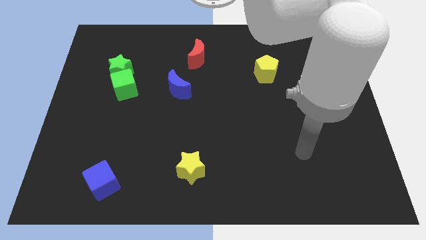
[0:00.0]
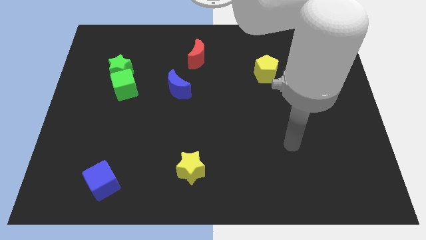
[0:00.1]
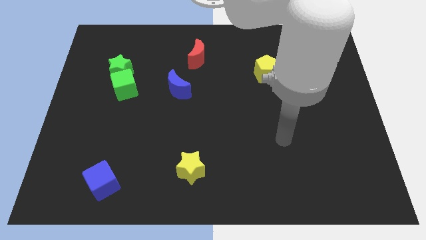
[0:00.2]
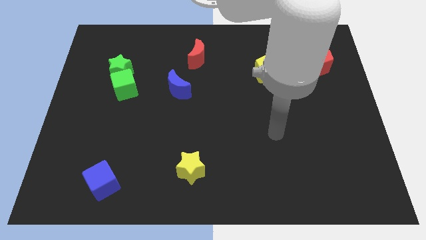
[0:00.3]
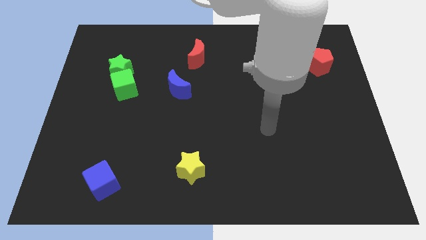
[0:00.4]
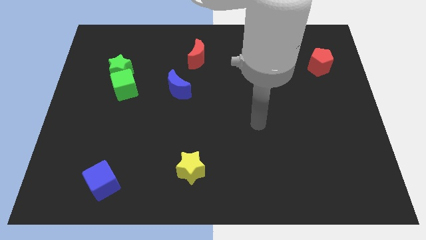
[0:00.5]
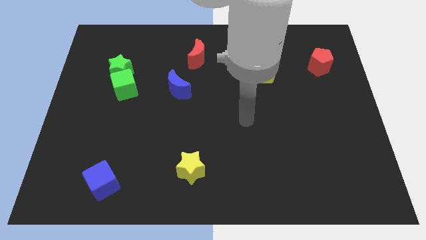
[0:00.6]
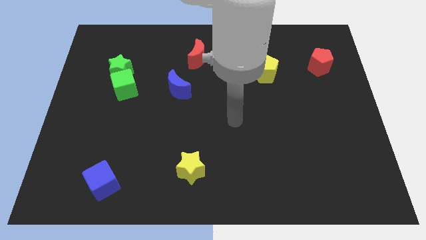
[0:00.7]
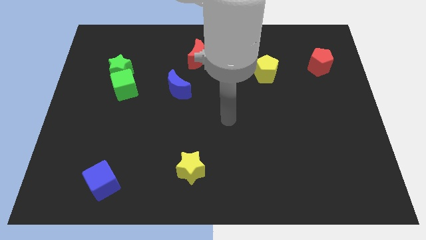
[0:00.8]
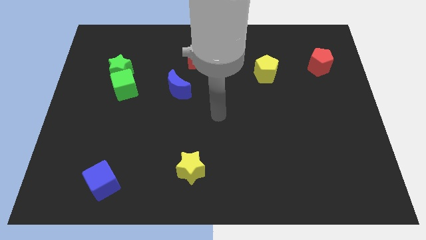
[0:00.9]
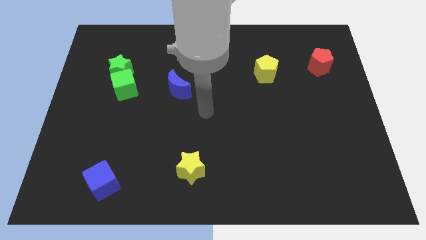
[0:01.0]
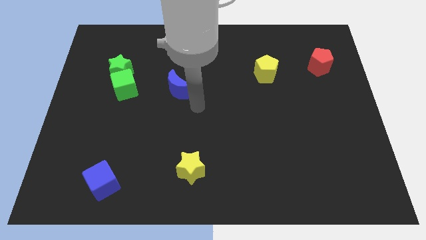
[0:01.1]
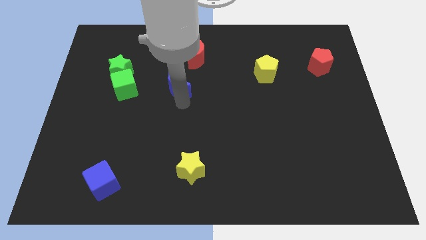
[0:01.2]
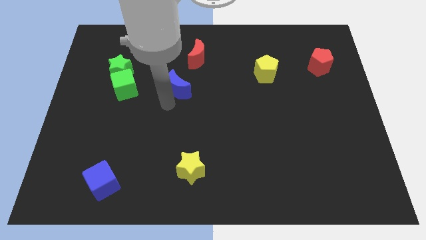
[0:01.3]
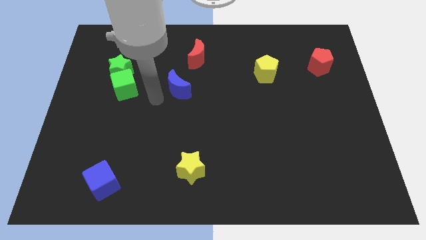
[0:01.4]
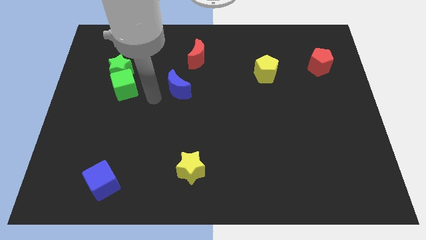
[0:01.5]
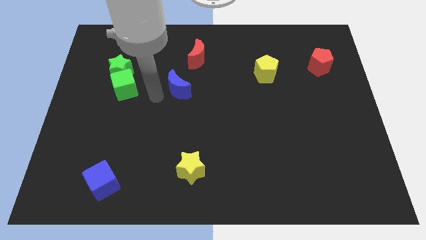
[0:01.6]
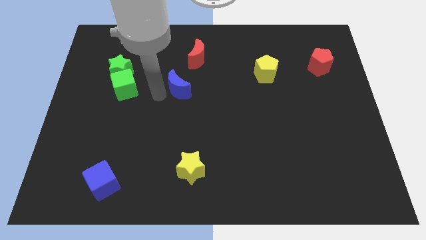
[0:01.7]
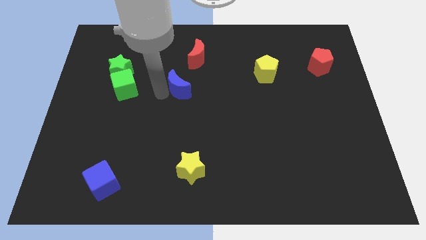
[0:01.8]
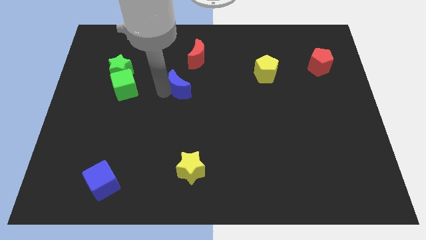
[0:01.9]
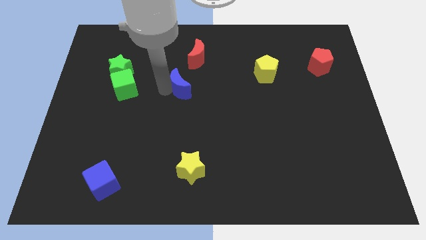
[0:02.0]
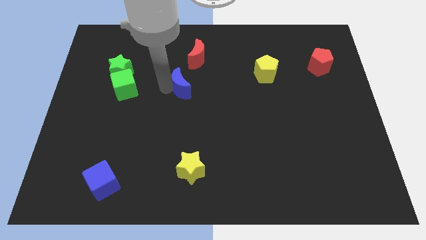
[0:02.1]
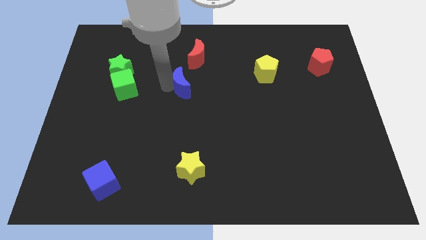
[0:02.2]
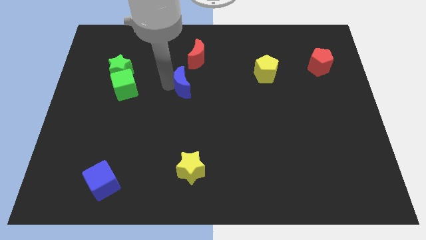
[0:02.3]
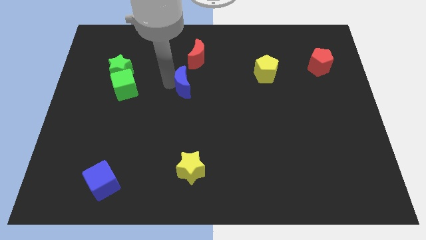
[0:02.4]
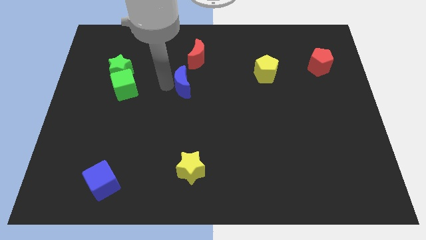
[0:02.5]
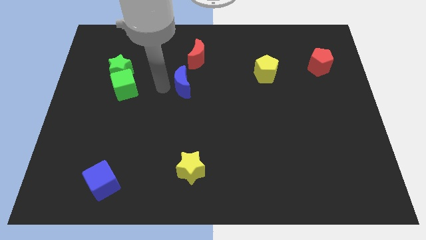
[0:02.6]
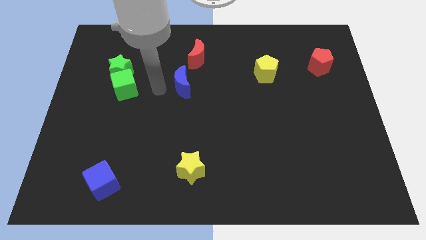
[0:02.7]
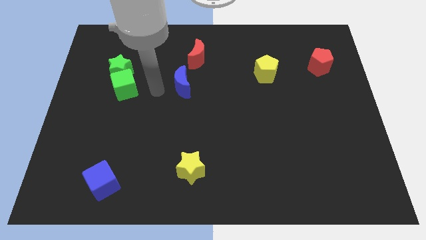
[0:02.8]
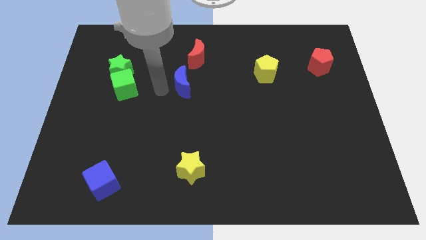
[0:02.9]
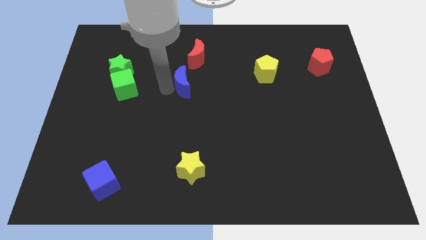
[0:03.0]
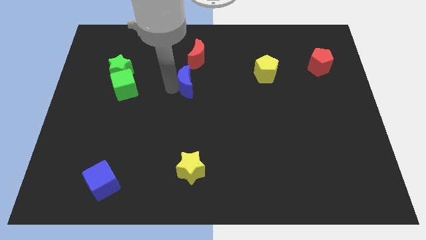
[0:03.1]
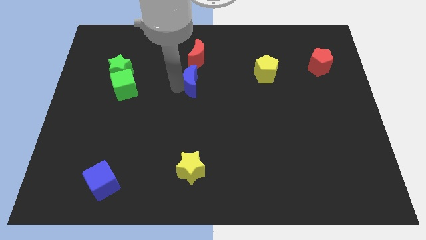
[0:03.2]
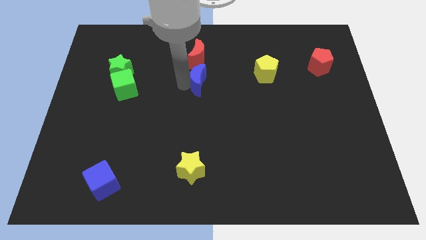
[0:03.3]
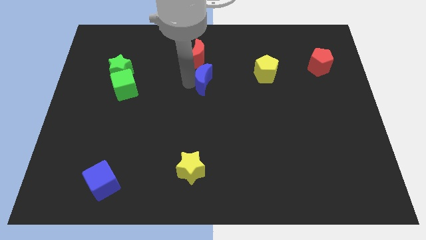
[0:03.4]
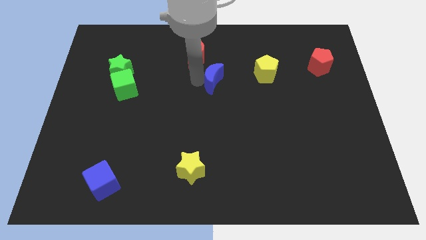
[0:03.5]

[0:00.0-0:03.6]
push the blue moon a little right

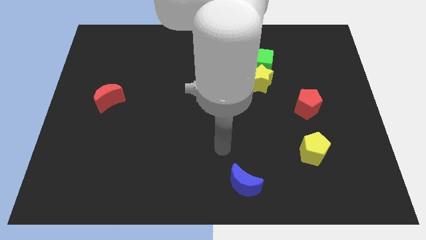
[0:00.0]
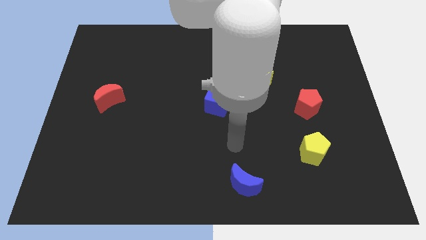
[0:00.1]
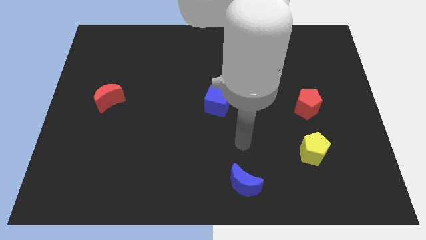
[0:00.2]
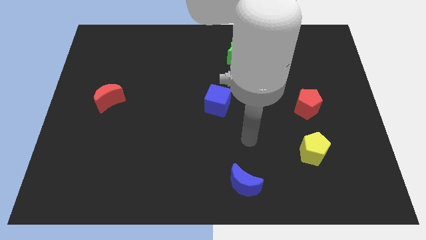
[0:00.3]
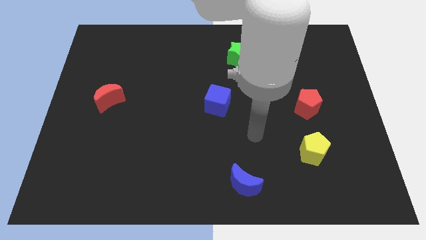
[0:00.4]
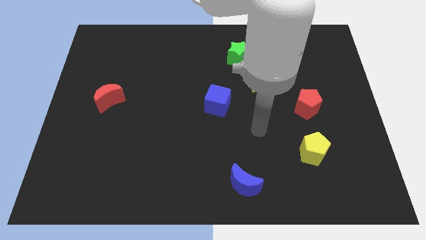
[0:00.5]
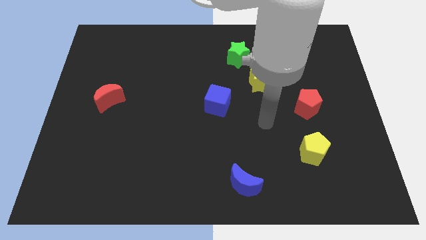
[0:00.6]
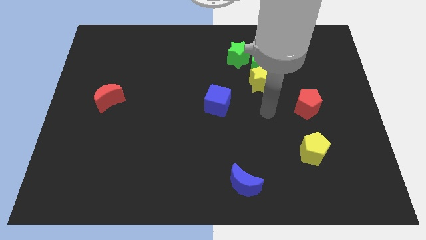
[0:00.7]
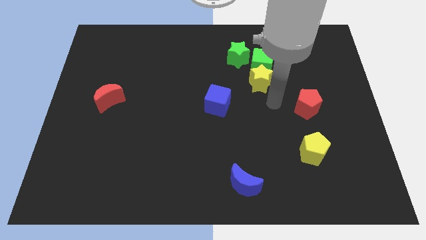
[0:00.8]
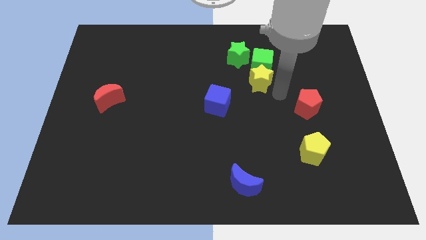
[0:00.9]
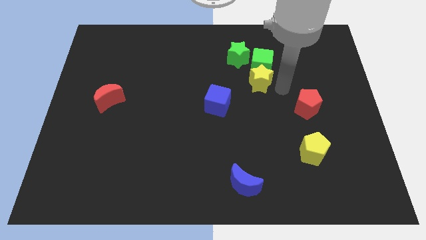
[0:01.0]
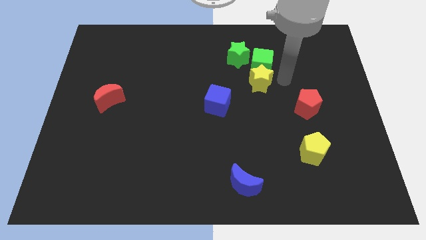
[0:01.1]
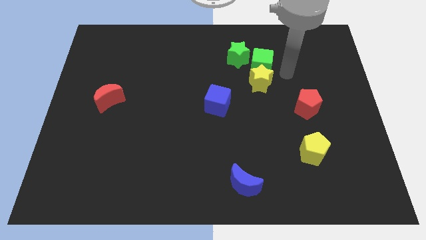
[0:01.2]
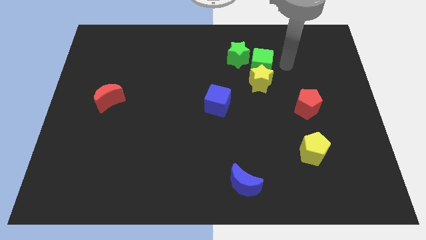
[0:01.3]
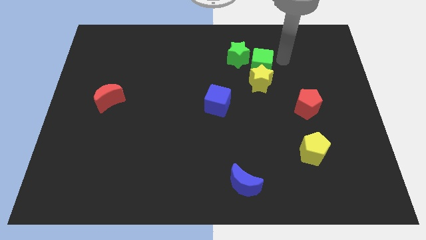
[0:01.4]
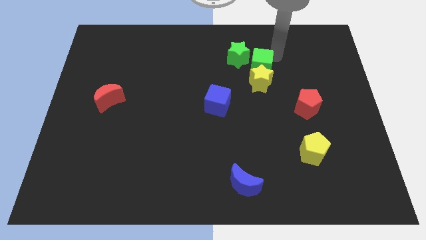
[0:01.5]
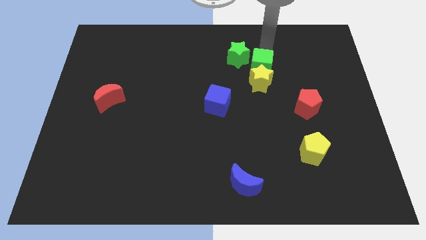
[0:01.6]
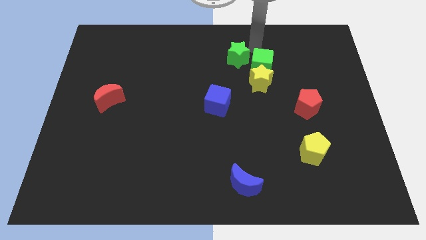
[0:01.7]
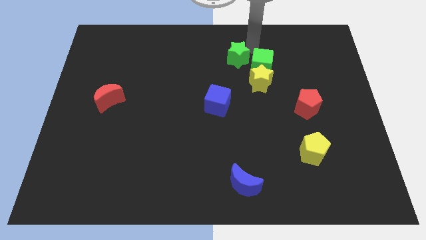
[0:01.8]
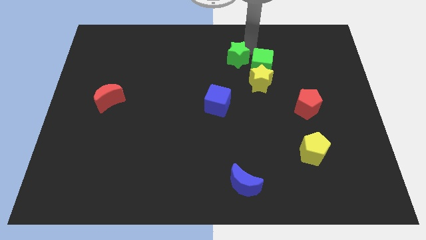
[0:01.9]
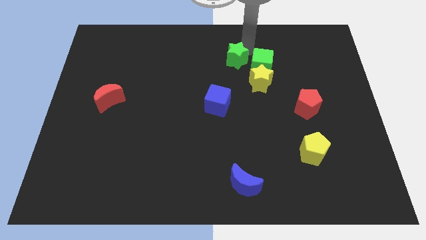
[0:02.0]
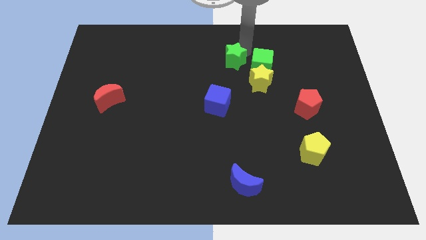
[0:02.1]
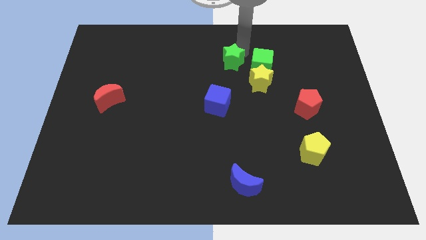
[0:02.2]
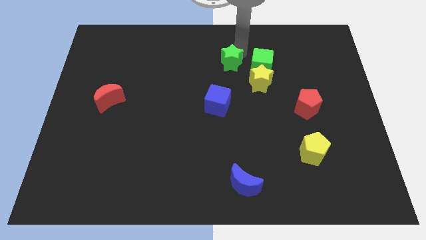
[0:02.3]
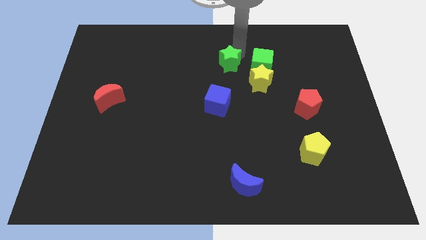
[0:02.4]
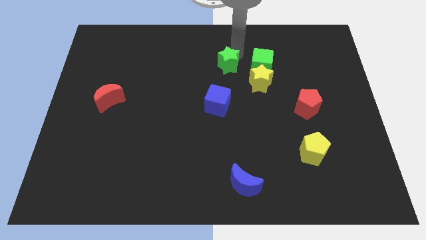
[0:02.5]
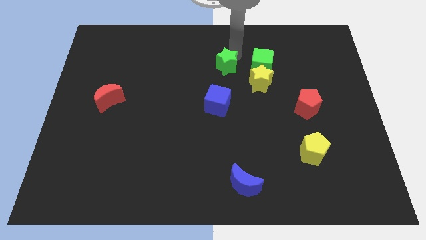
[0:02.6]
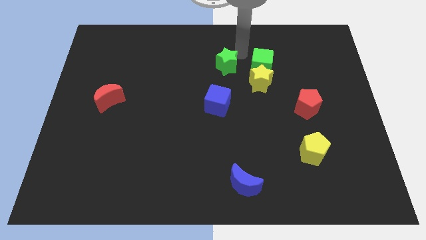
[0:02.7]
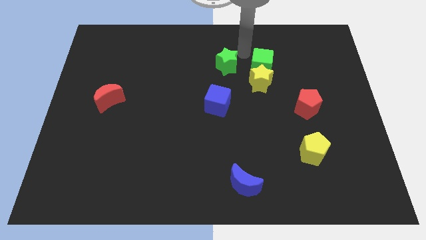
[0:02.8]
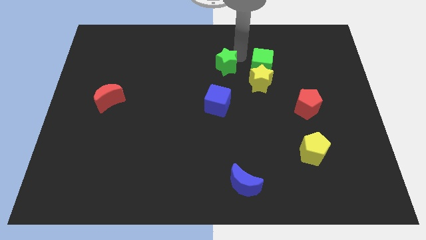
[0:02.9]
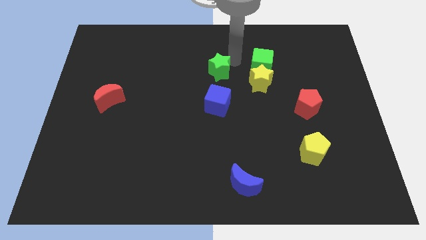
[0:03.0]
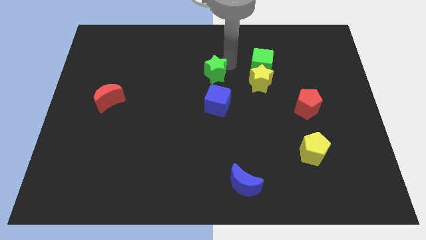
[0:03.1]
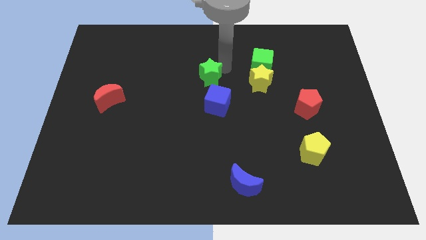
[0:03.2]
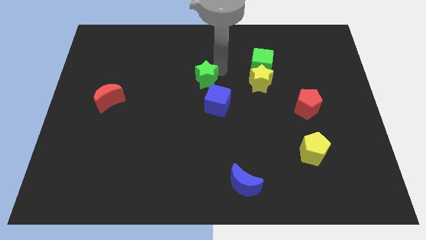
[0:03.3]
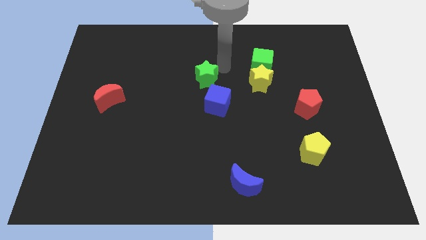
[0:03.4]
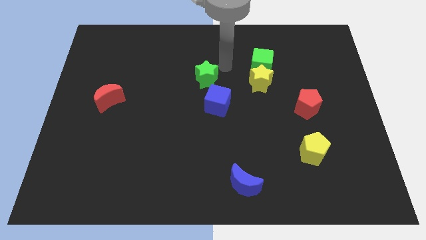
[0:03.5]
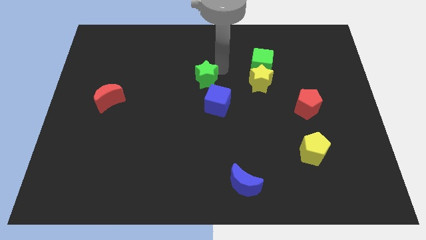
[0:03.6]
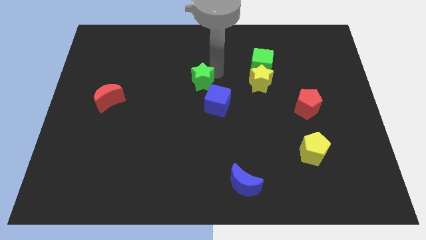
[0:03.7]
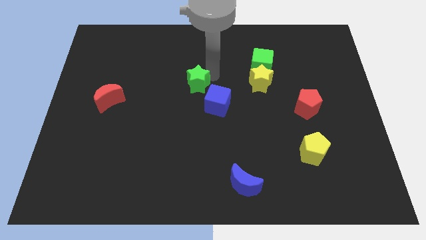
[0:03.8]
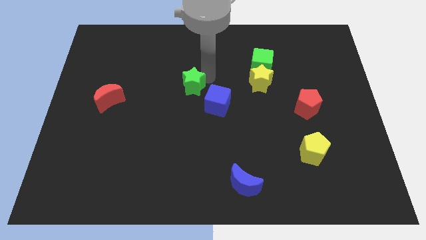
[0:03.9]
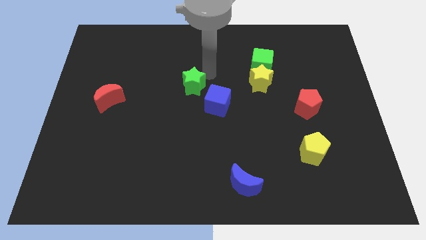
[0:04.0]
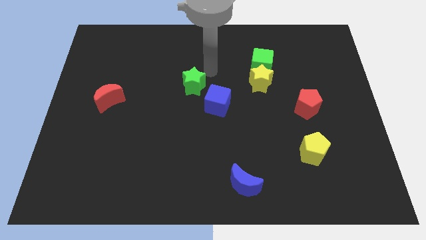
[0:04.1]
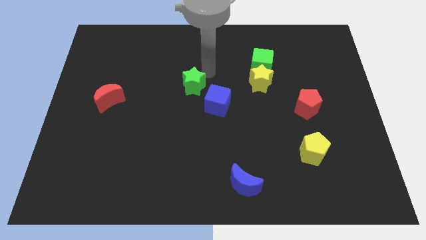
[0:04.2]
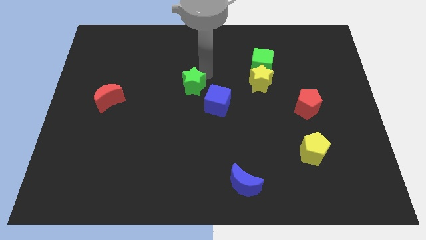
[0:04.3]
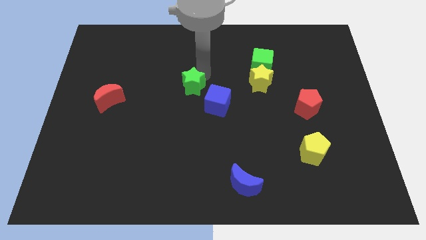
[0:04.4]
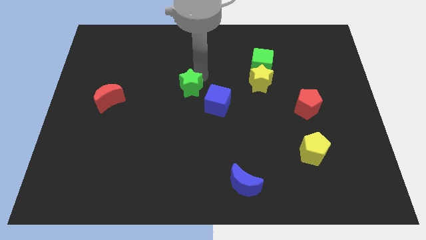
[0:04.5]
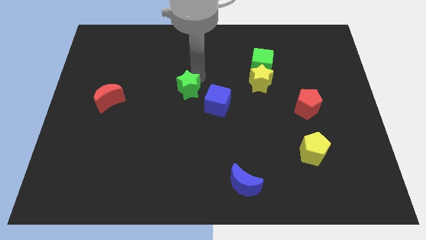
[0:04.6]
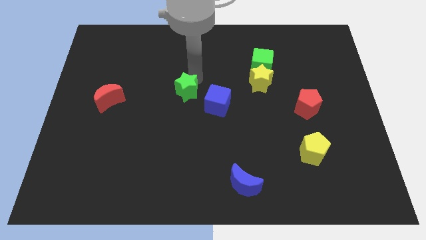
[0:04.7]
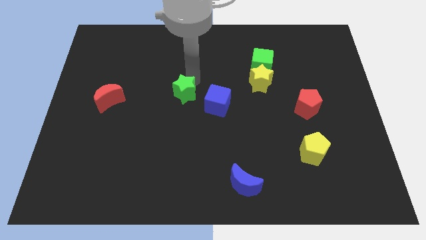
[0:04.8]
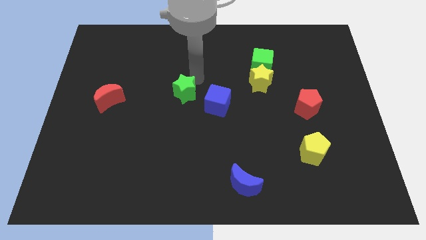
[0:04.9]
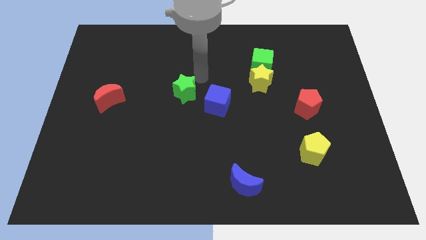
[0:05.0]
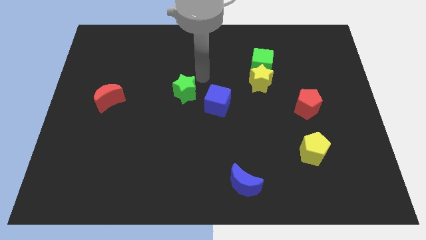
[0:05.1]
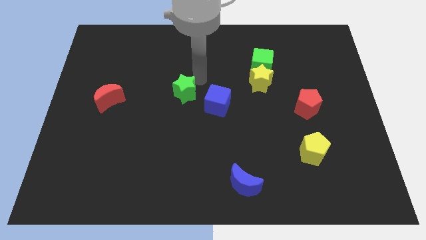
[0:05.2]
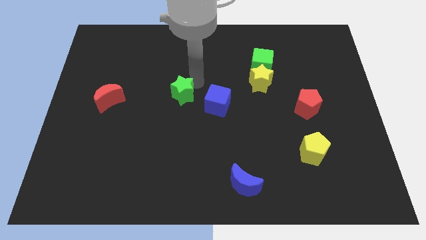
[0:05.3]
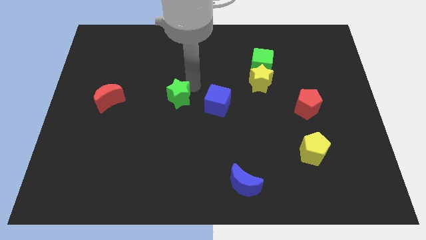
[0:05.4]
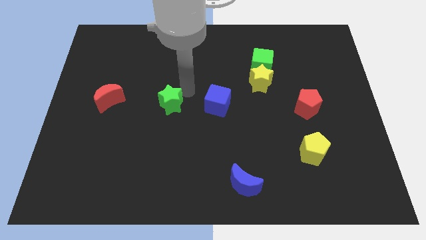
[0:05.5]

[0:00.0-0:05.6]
move the green star downwards and then to the left
